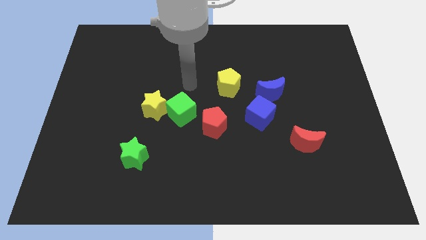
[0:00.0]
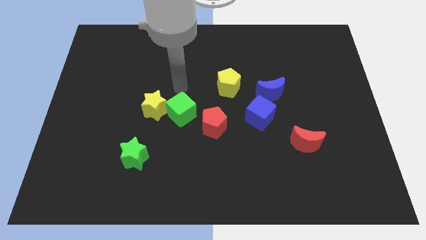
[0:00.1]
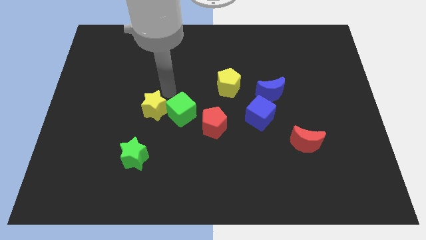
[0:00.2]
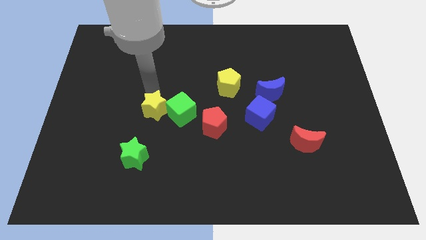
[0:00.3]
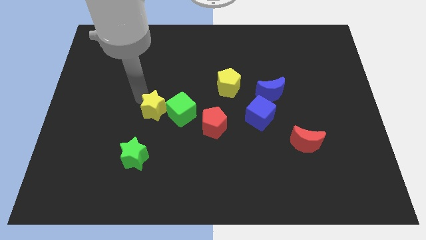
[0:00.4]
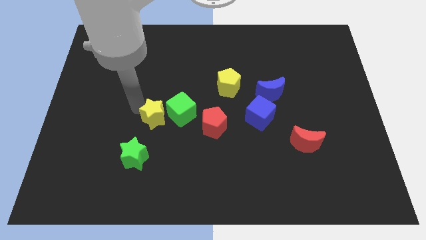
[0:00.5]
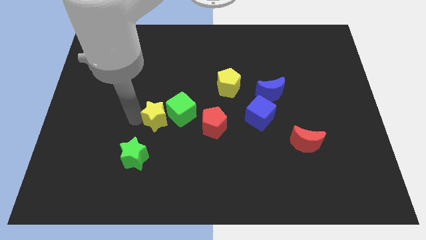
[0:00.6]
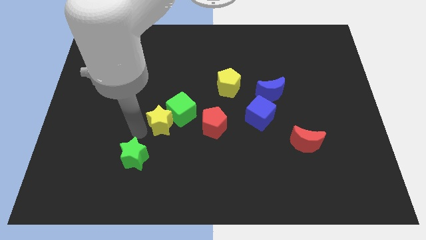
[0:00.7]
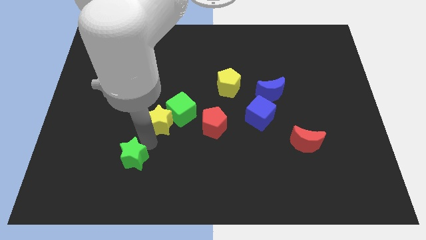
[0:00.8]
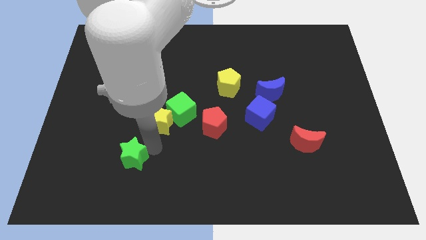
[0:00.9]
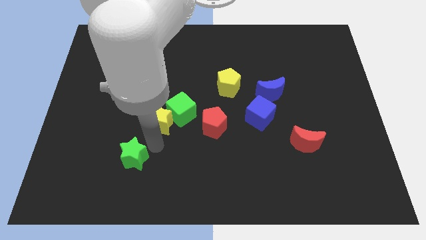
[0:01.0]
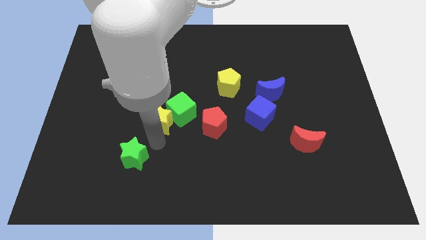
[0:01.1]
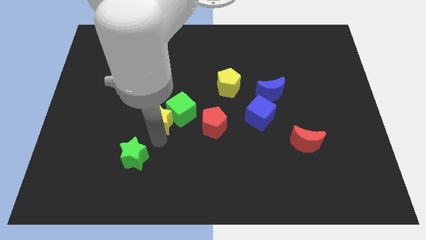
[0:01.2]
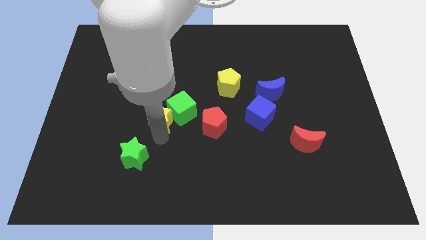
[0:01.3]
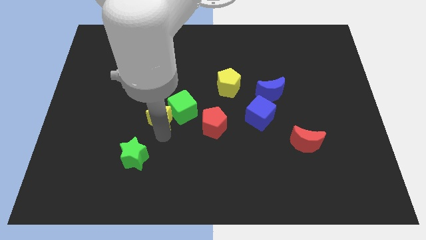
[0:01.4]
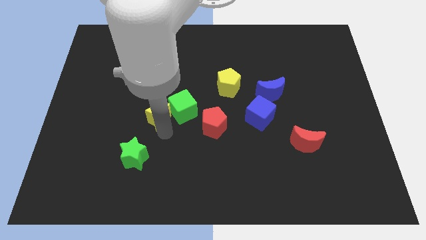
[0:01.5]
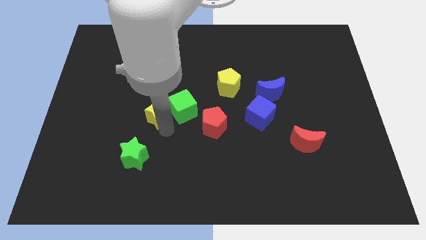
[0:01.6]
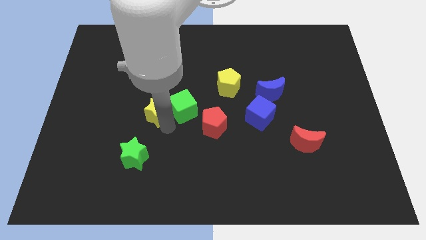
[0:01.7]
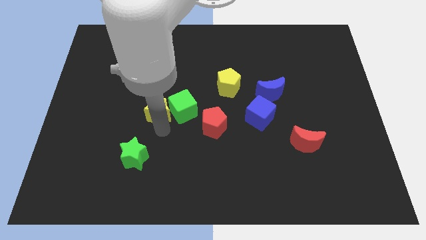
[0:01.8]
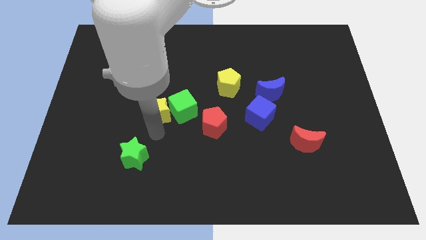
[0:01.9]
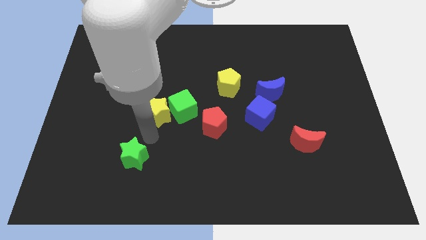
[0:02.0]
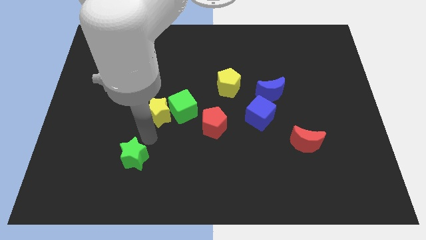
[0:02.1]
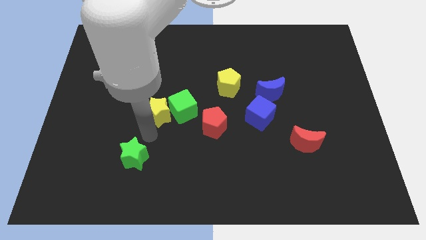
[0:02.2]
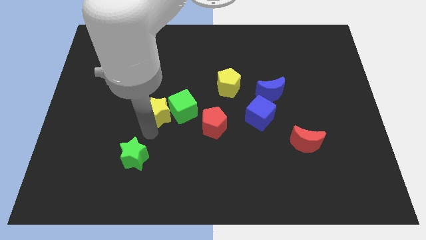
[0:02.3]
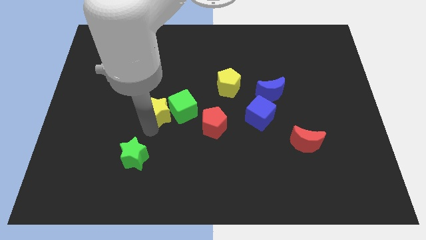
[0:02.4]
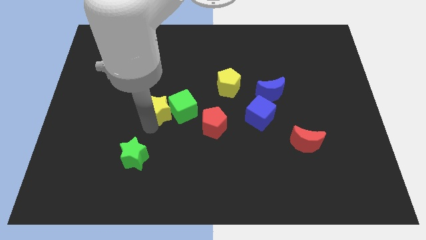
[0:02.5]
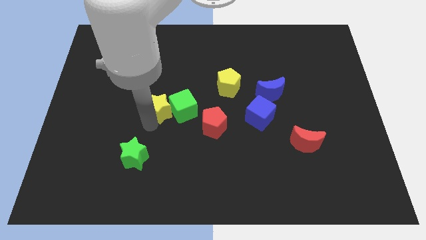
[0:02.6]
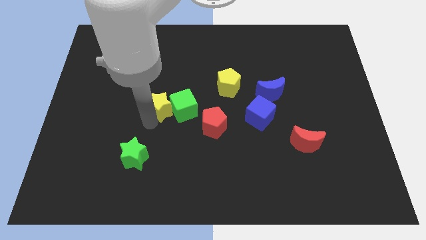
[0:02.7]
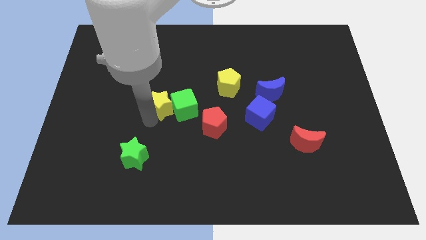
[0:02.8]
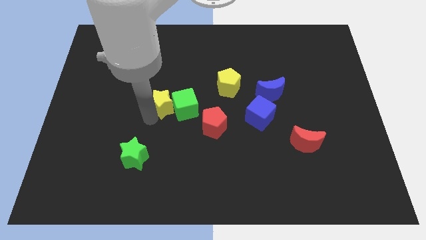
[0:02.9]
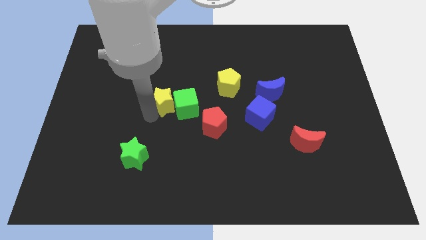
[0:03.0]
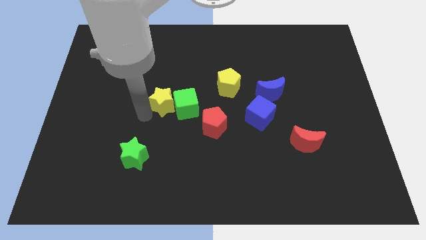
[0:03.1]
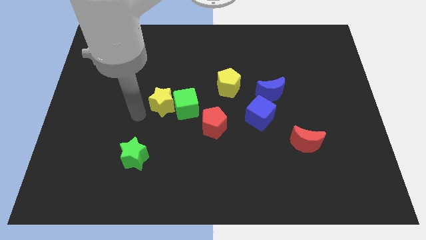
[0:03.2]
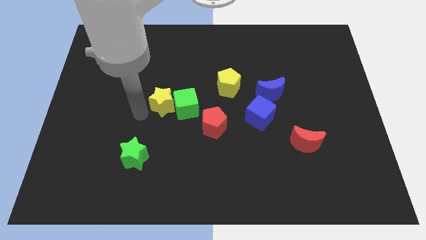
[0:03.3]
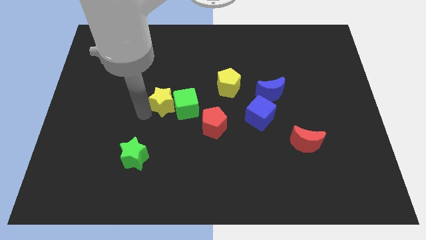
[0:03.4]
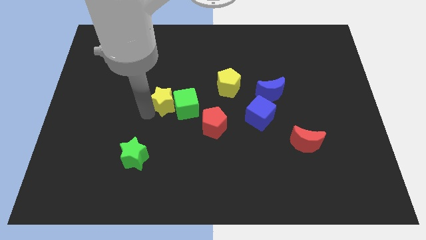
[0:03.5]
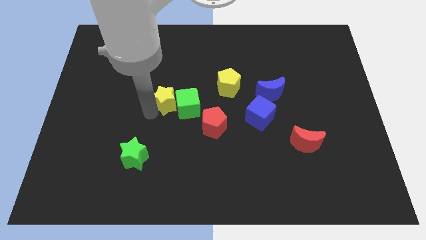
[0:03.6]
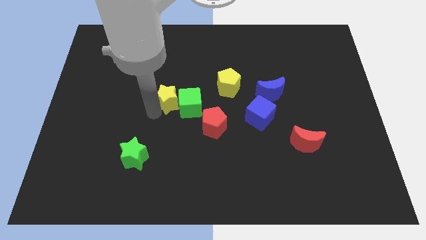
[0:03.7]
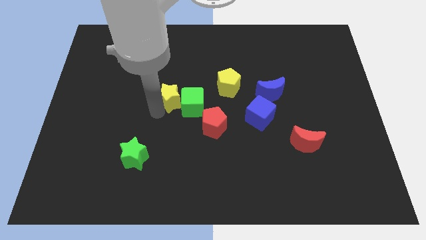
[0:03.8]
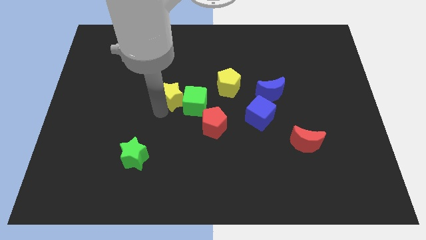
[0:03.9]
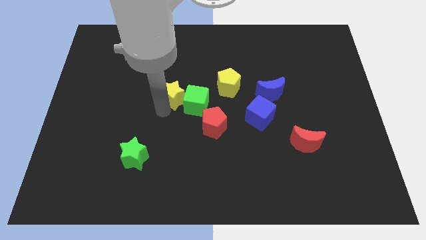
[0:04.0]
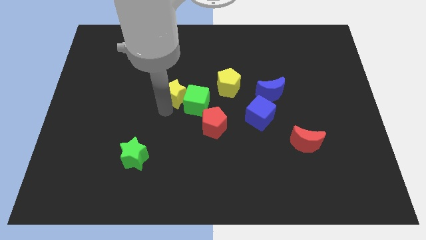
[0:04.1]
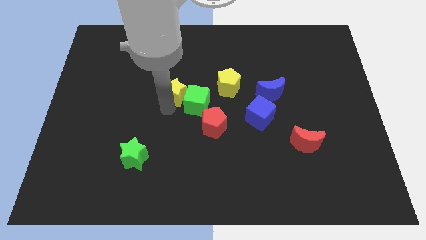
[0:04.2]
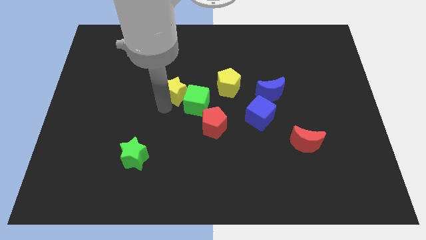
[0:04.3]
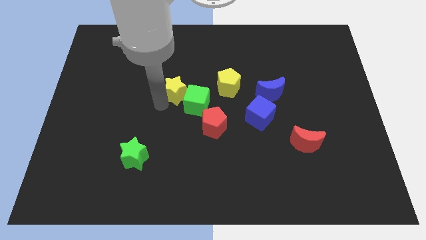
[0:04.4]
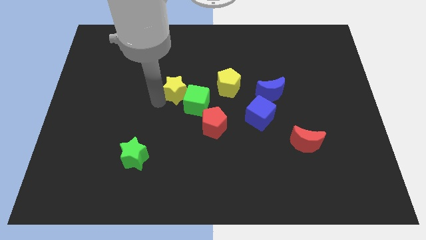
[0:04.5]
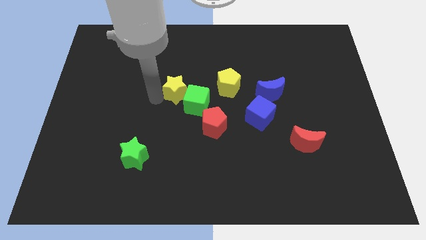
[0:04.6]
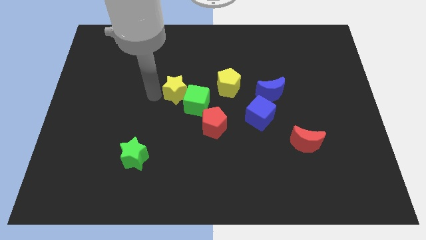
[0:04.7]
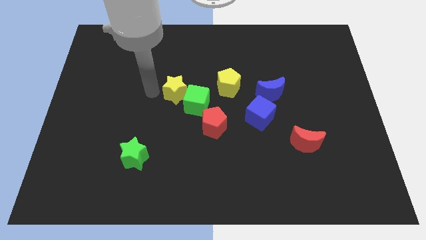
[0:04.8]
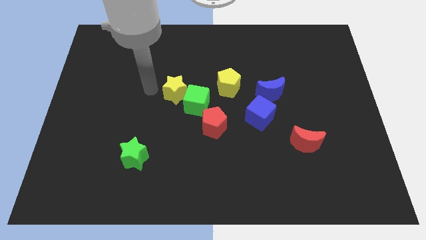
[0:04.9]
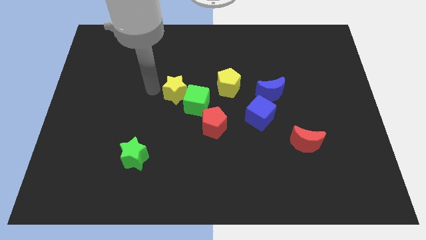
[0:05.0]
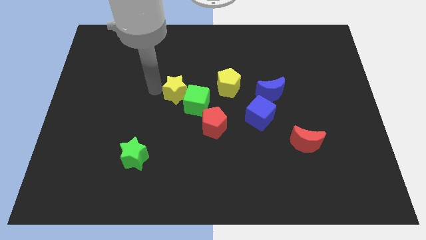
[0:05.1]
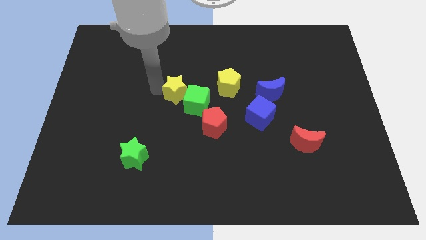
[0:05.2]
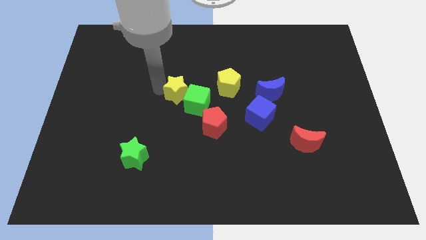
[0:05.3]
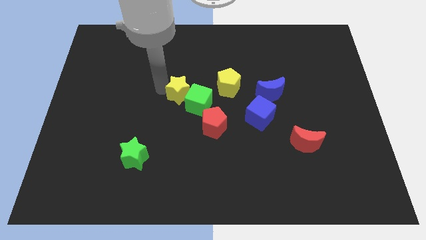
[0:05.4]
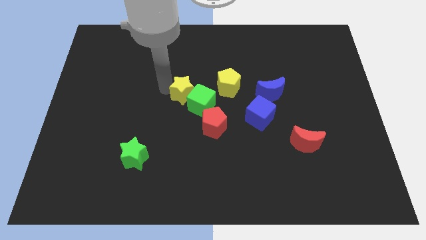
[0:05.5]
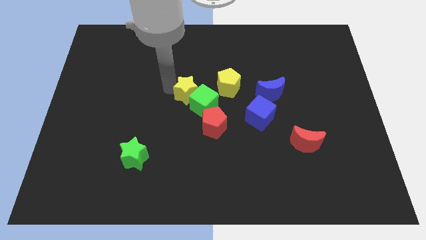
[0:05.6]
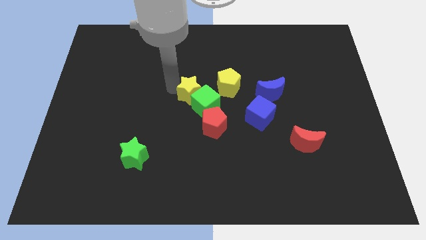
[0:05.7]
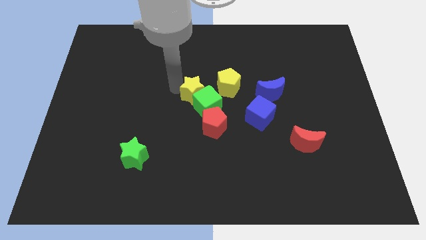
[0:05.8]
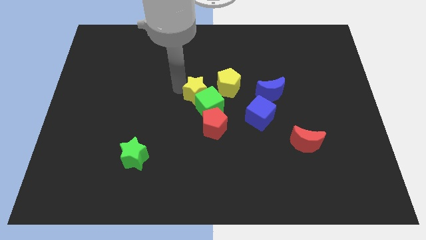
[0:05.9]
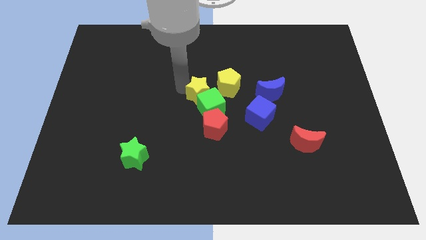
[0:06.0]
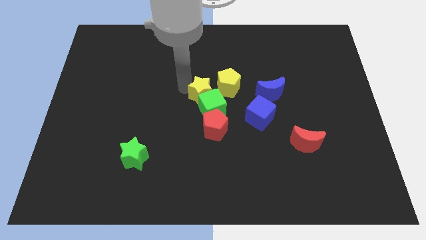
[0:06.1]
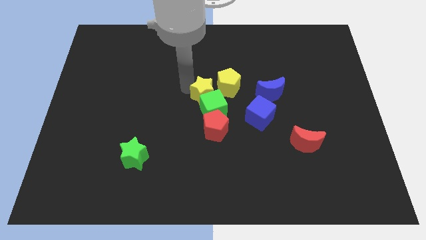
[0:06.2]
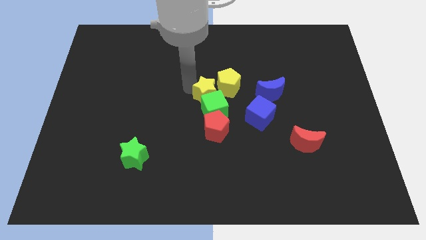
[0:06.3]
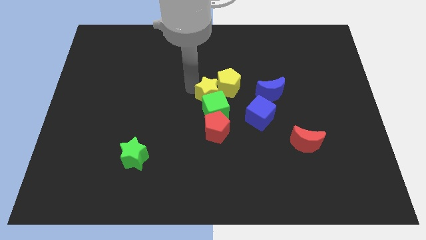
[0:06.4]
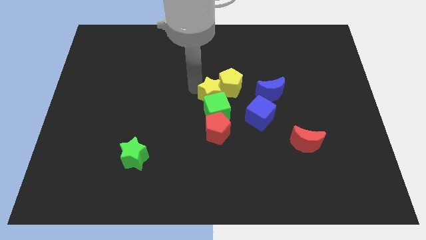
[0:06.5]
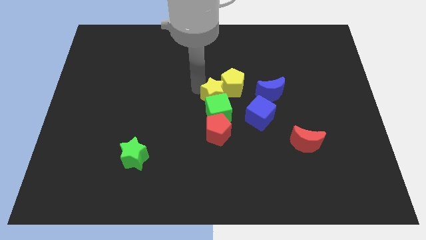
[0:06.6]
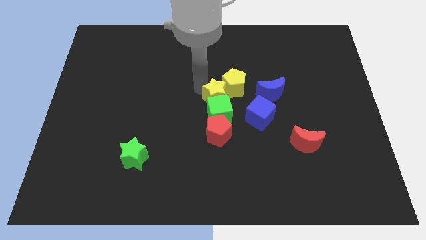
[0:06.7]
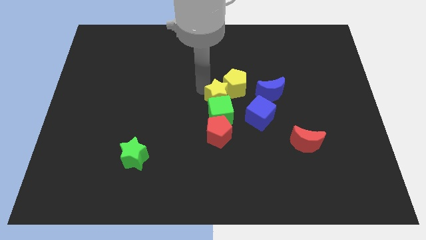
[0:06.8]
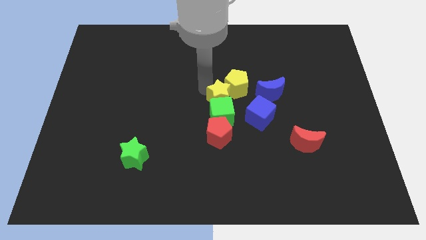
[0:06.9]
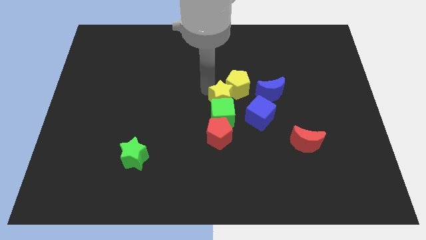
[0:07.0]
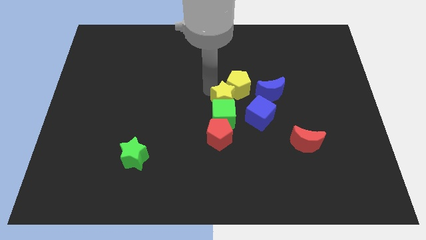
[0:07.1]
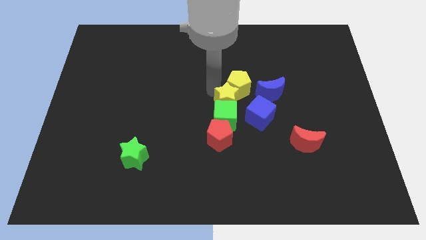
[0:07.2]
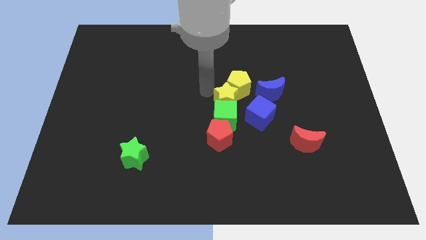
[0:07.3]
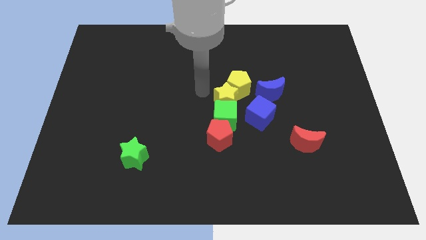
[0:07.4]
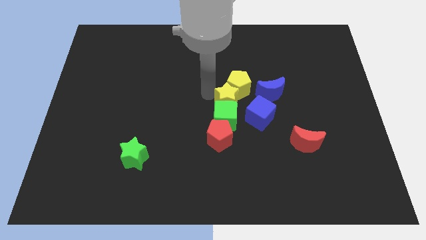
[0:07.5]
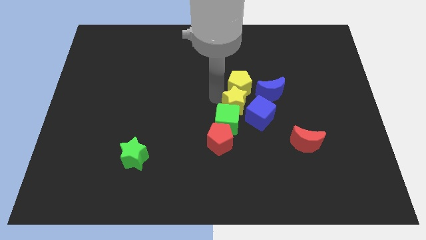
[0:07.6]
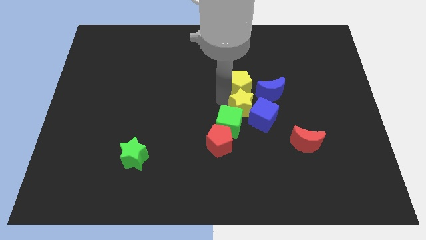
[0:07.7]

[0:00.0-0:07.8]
push the yellow star towards the blue cube
